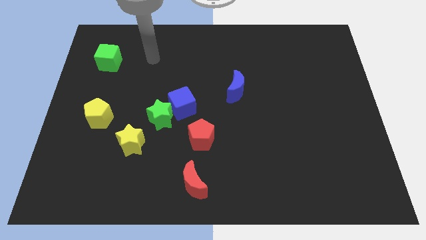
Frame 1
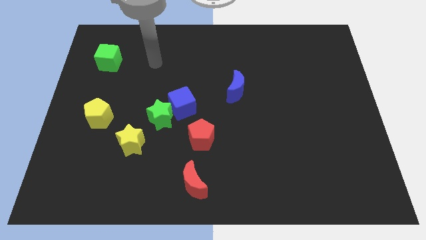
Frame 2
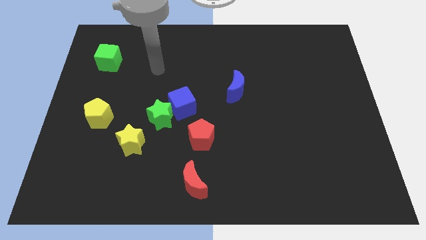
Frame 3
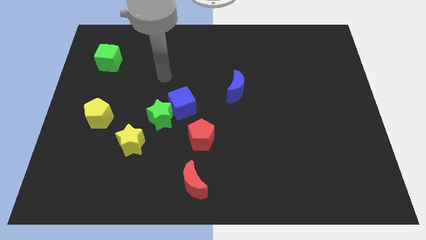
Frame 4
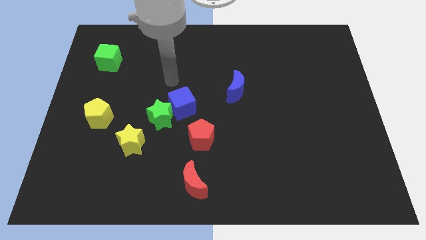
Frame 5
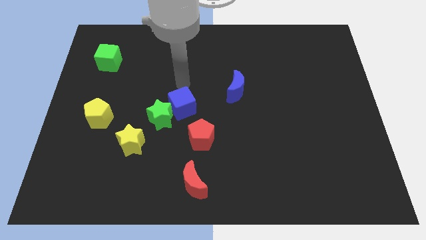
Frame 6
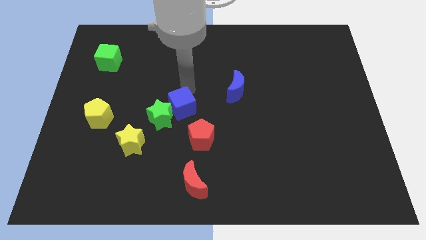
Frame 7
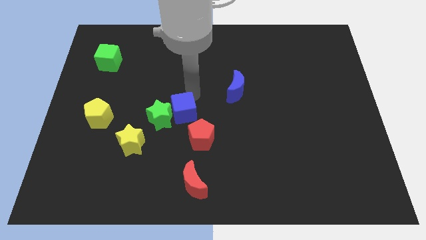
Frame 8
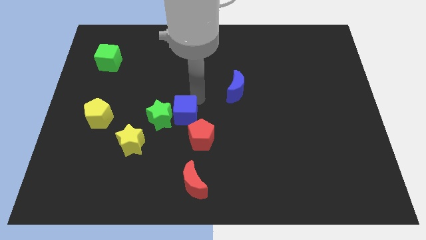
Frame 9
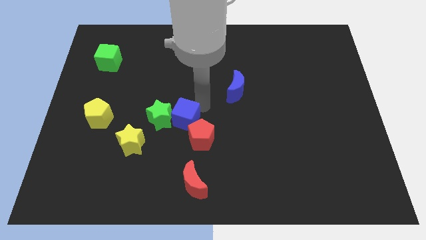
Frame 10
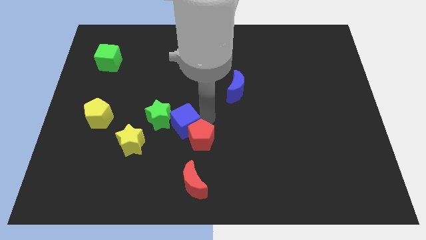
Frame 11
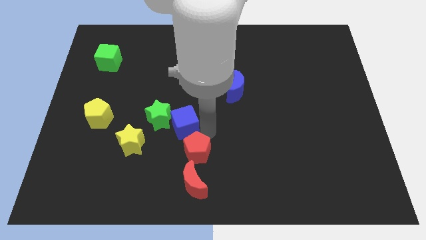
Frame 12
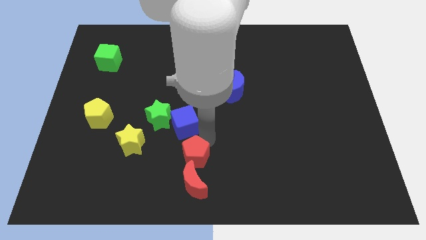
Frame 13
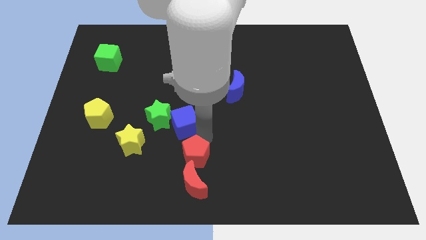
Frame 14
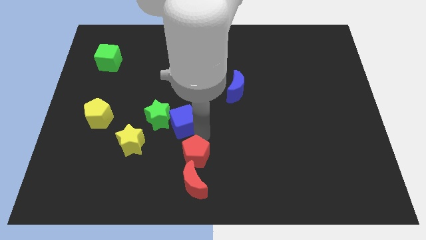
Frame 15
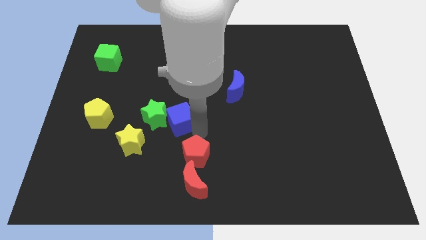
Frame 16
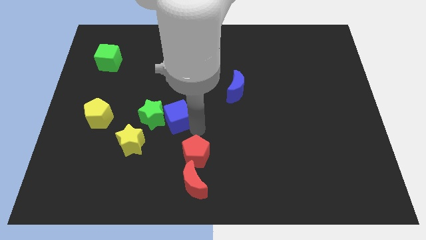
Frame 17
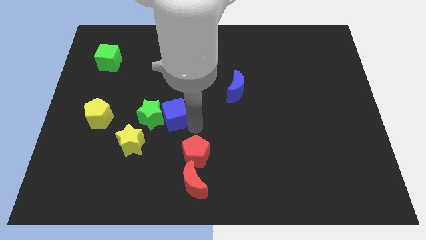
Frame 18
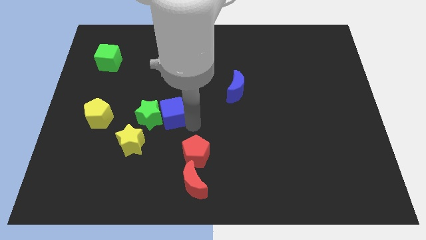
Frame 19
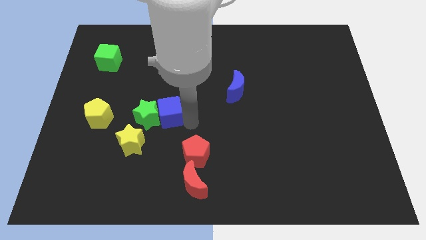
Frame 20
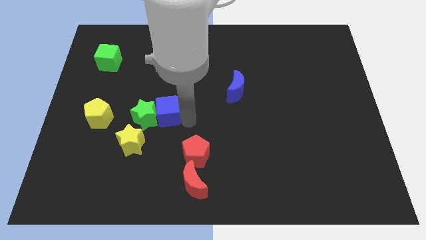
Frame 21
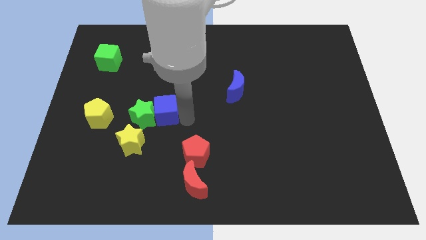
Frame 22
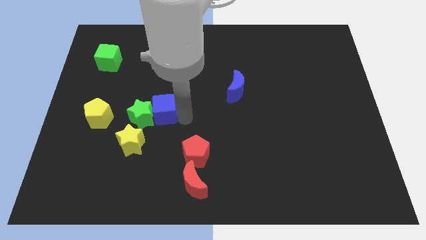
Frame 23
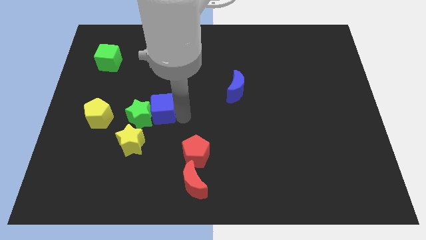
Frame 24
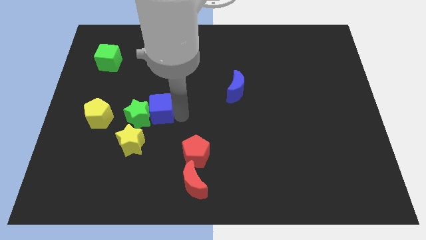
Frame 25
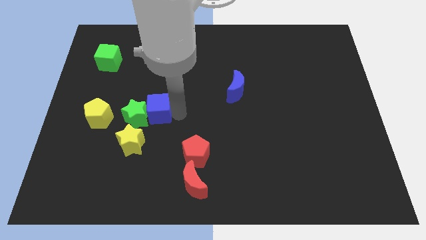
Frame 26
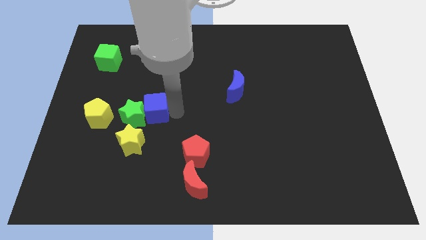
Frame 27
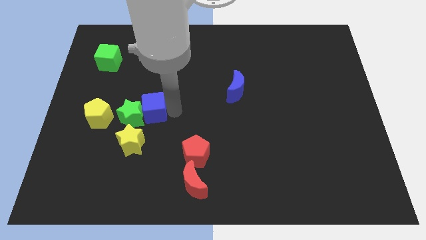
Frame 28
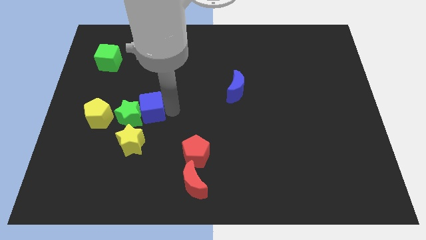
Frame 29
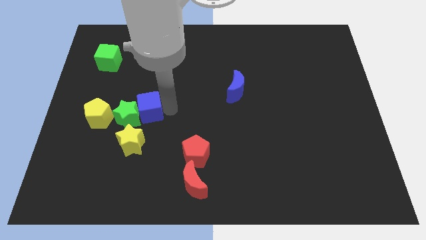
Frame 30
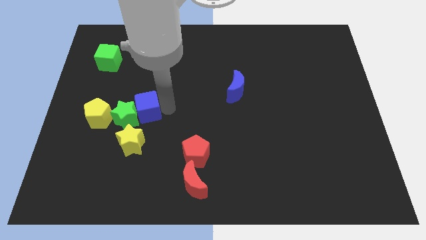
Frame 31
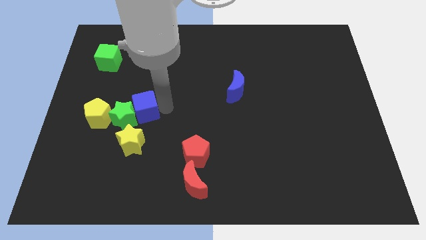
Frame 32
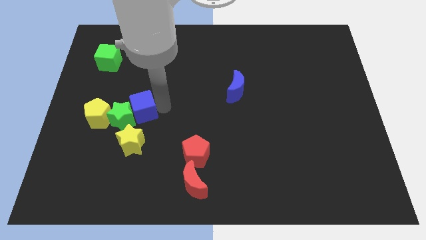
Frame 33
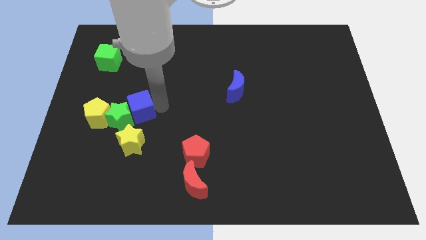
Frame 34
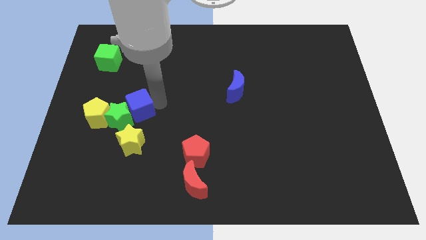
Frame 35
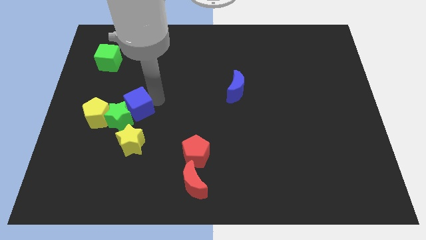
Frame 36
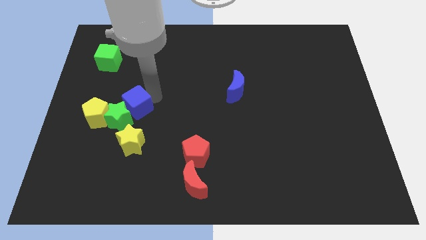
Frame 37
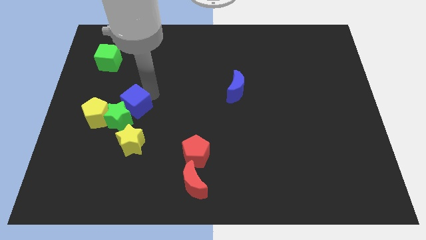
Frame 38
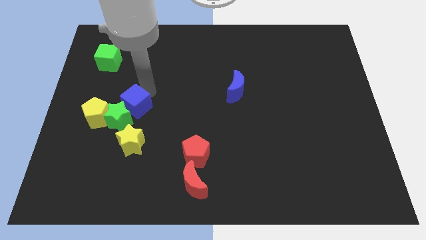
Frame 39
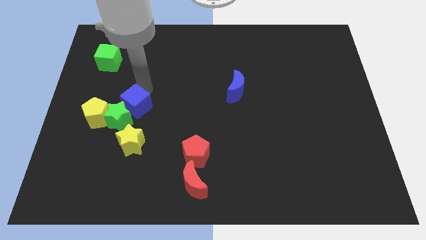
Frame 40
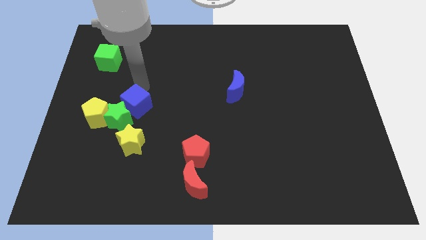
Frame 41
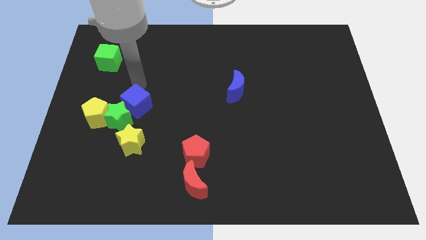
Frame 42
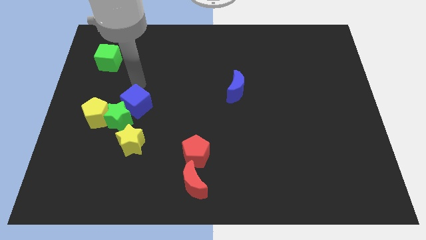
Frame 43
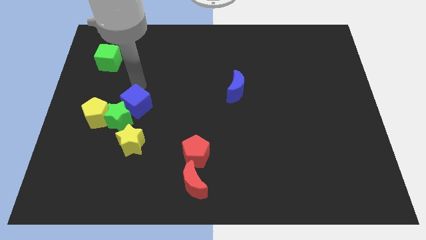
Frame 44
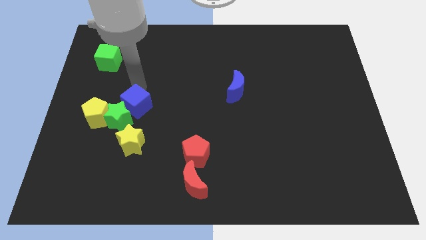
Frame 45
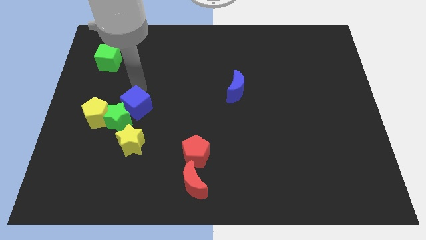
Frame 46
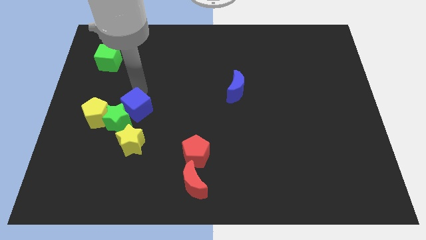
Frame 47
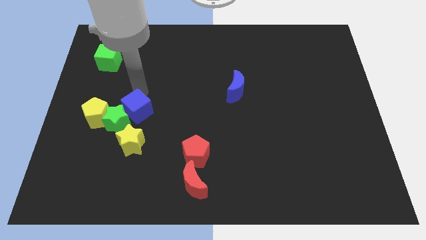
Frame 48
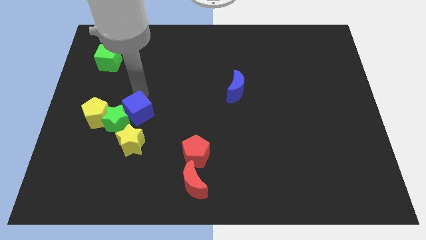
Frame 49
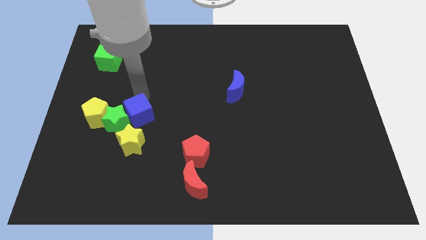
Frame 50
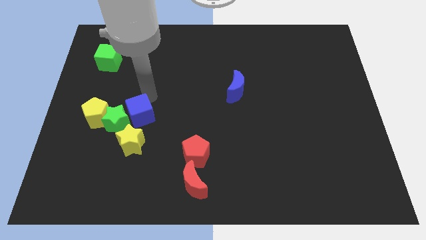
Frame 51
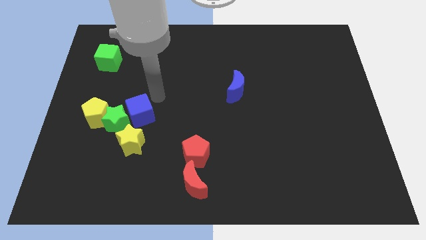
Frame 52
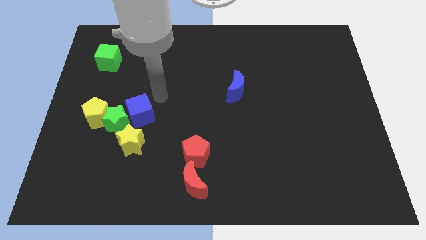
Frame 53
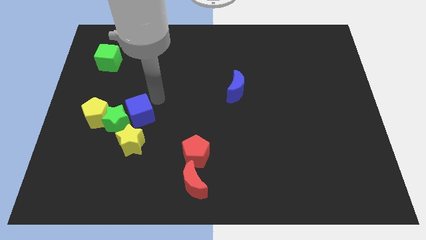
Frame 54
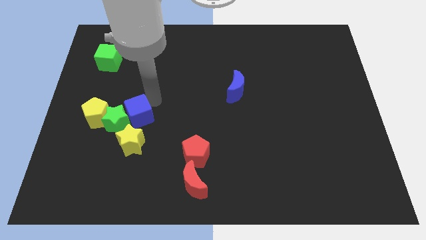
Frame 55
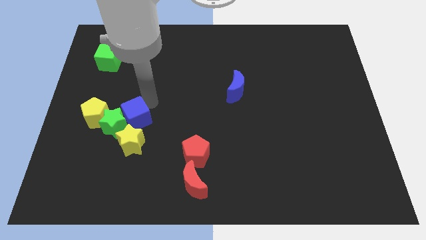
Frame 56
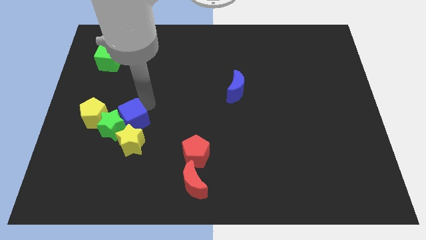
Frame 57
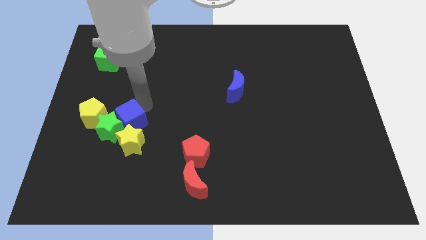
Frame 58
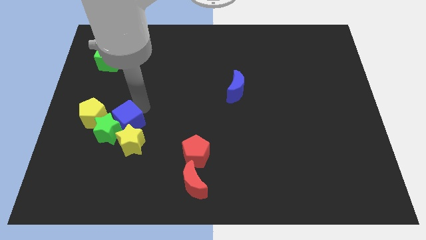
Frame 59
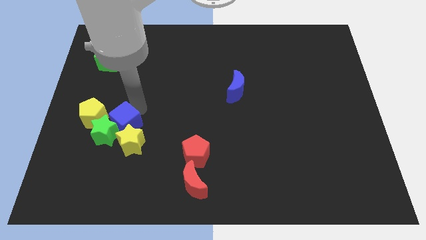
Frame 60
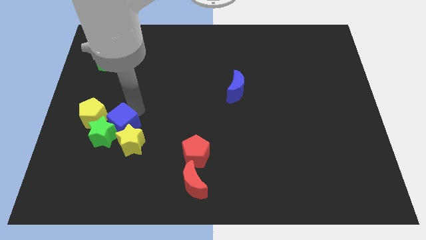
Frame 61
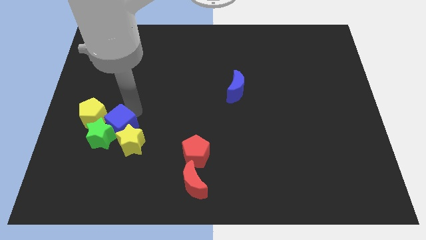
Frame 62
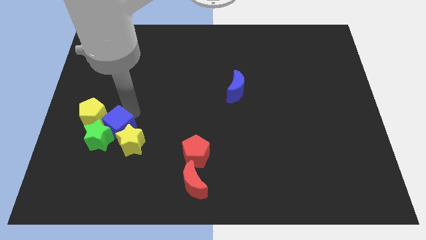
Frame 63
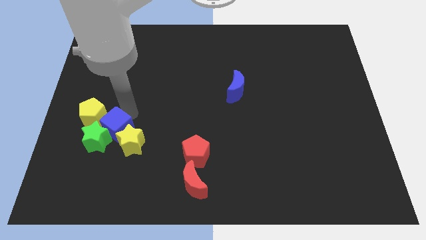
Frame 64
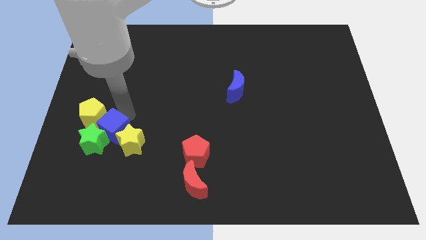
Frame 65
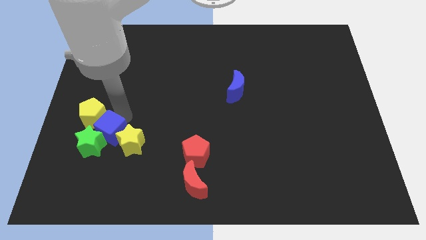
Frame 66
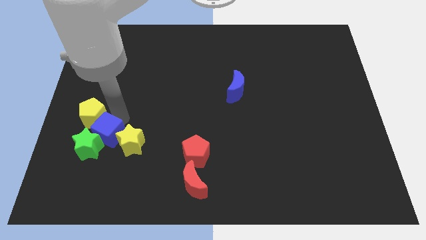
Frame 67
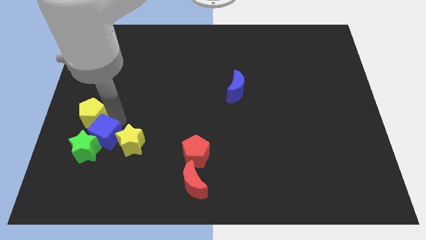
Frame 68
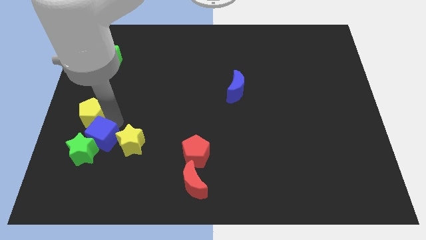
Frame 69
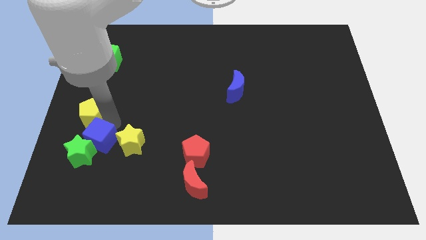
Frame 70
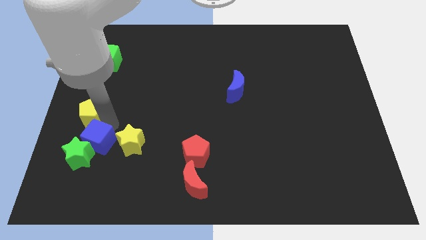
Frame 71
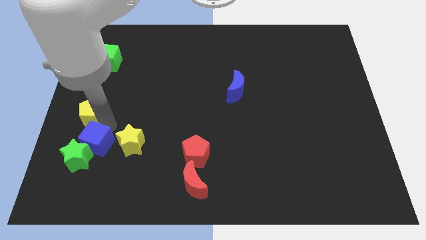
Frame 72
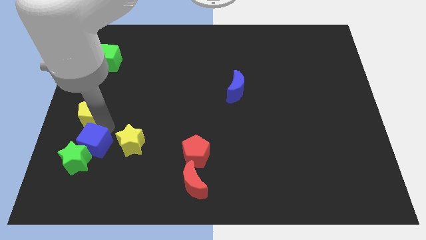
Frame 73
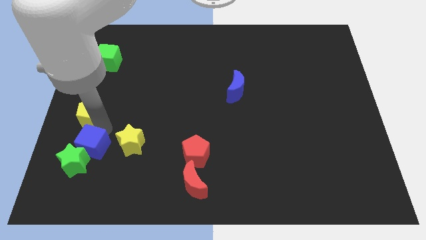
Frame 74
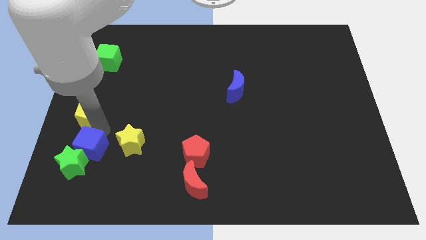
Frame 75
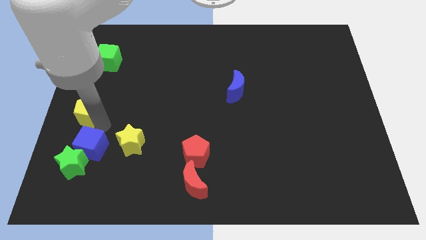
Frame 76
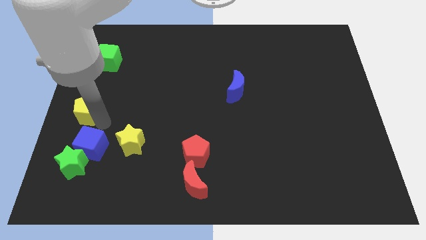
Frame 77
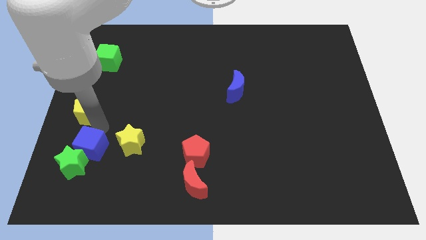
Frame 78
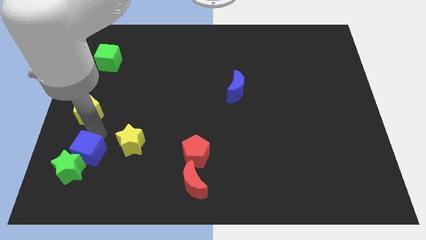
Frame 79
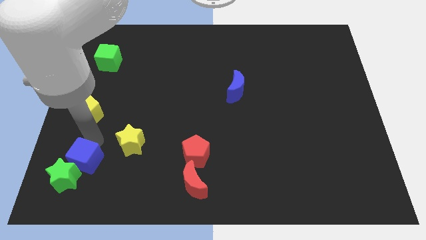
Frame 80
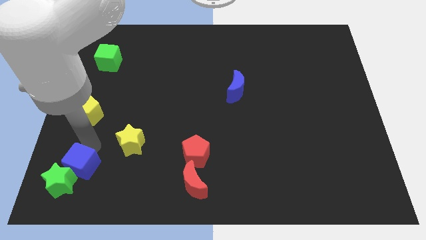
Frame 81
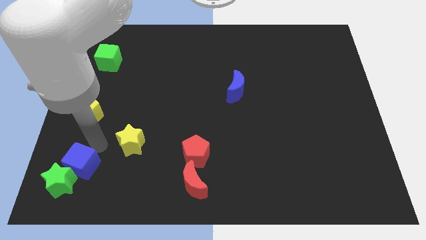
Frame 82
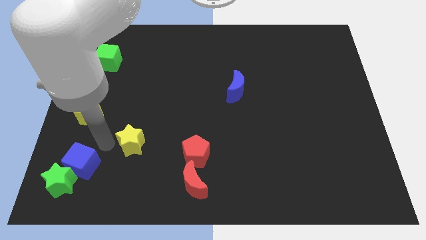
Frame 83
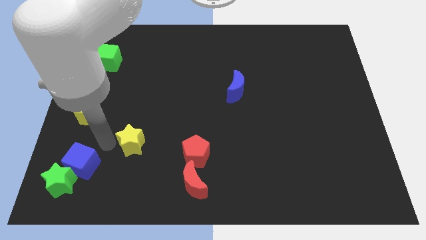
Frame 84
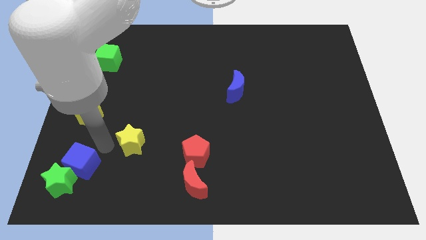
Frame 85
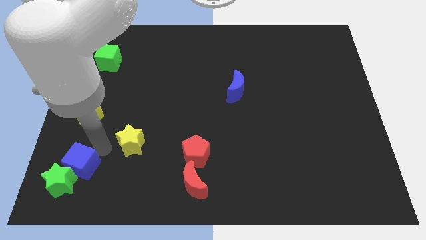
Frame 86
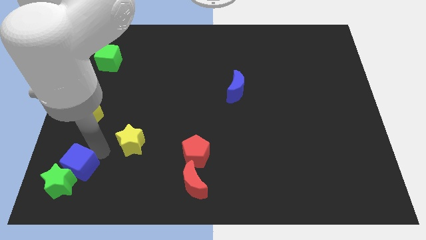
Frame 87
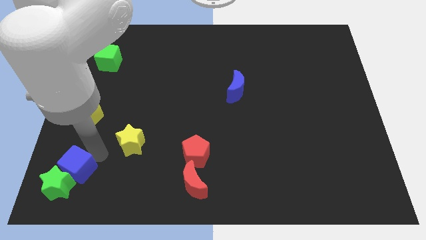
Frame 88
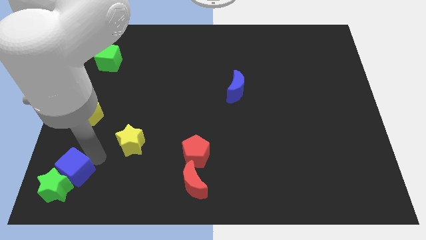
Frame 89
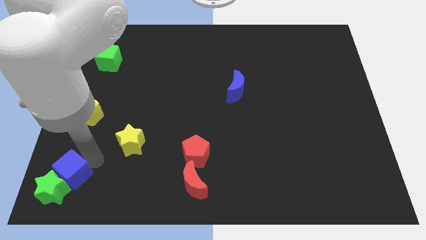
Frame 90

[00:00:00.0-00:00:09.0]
slide the blue cube to the bottom left corner
